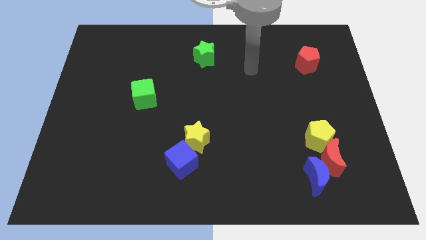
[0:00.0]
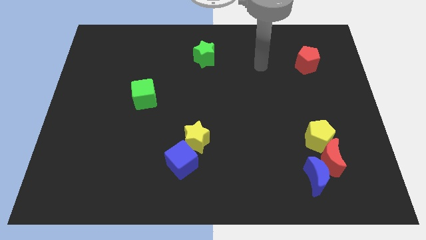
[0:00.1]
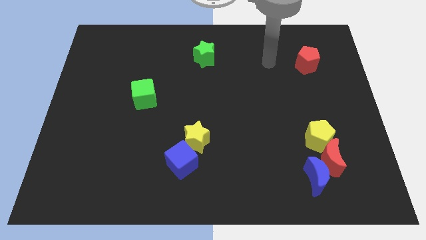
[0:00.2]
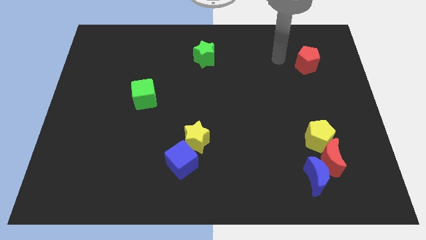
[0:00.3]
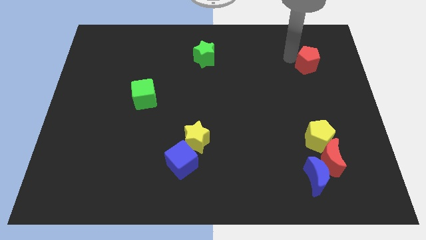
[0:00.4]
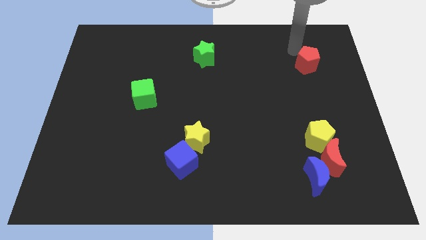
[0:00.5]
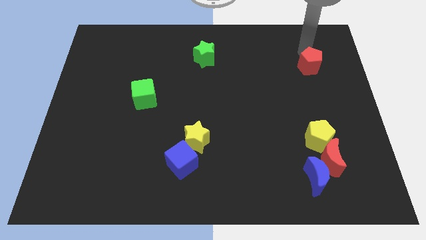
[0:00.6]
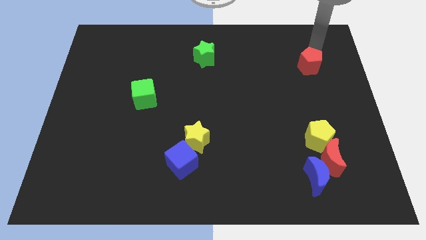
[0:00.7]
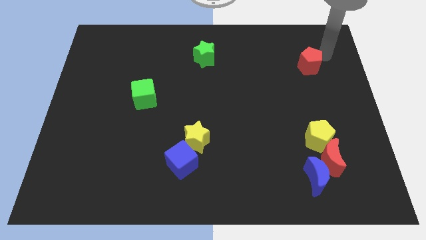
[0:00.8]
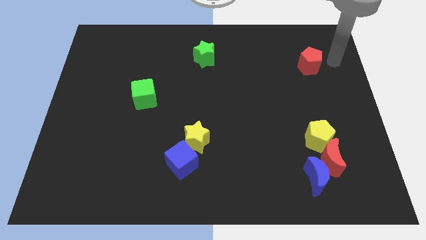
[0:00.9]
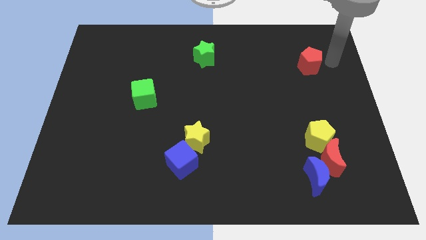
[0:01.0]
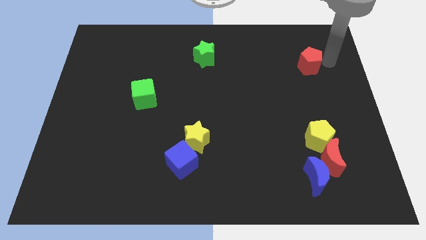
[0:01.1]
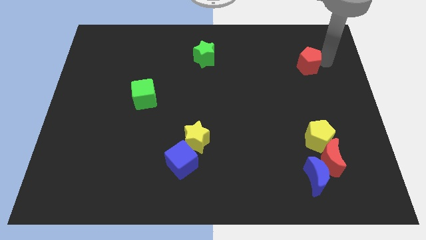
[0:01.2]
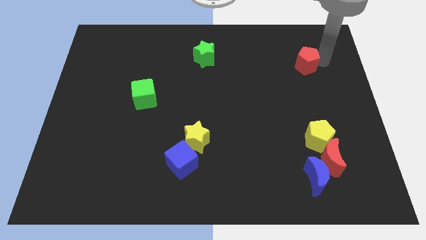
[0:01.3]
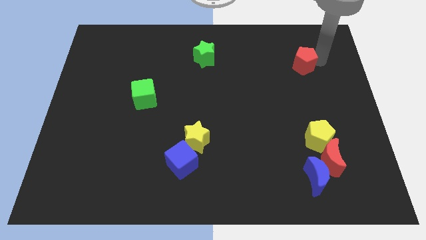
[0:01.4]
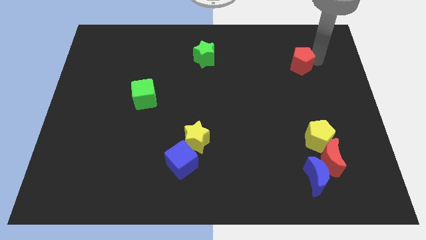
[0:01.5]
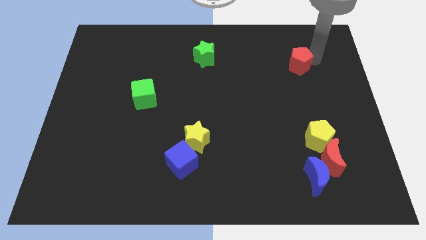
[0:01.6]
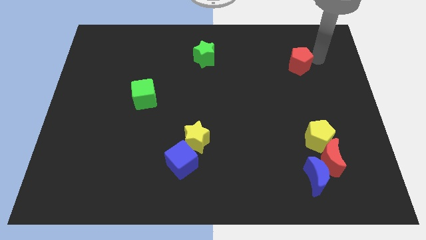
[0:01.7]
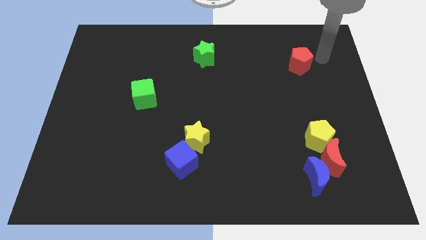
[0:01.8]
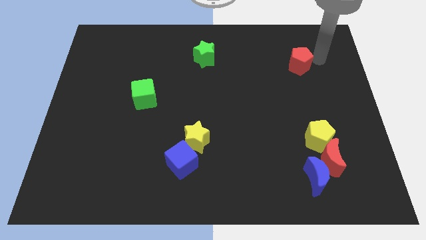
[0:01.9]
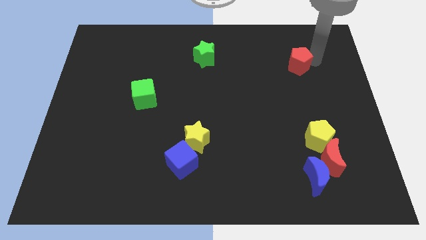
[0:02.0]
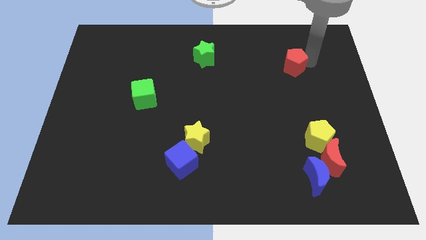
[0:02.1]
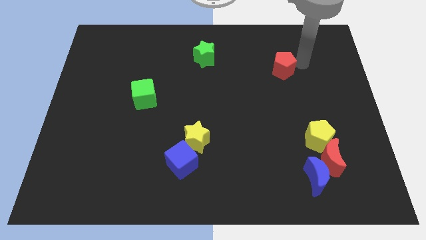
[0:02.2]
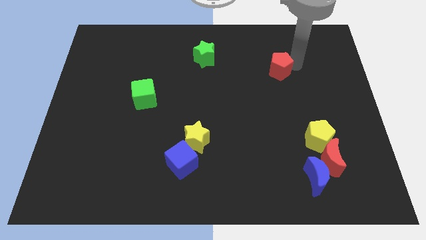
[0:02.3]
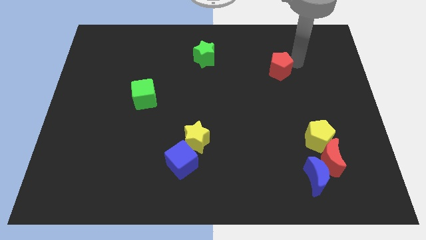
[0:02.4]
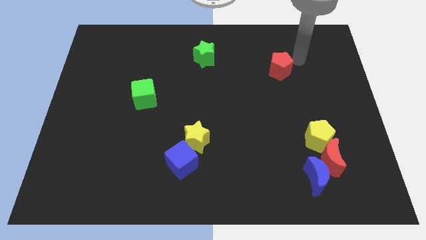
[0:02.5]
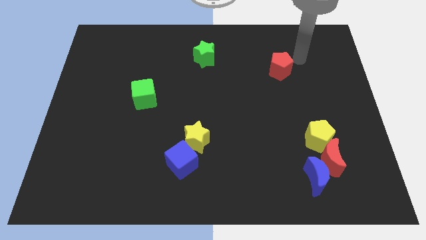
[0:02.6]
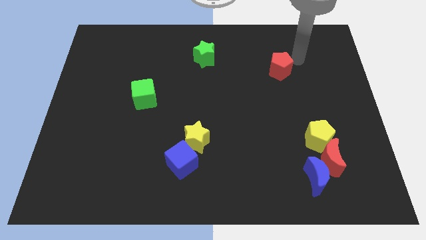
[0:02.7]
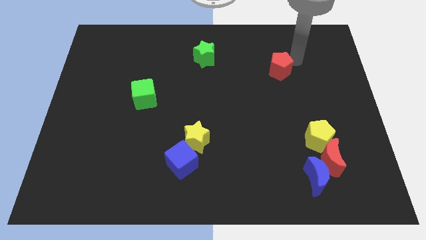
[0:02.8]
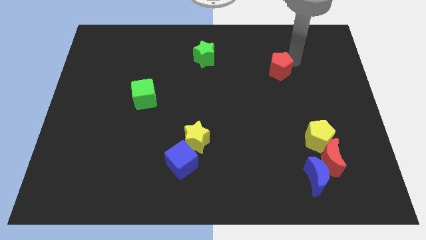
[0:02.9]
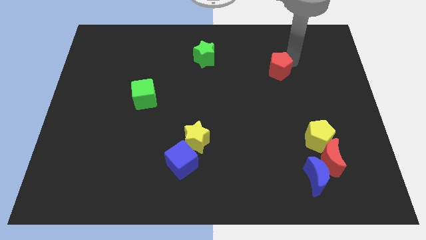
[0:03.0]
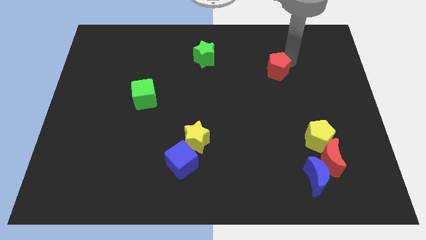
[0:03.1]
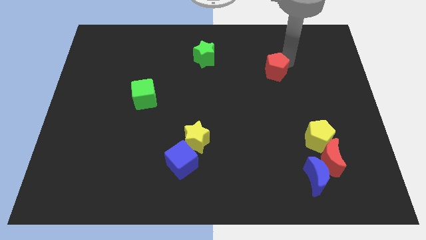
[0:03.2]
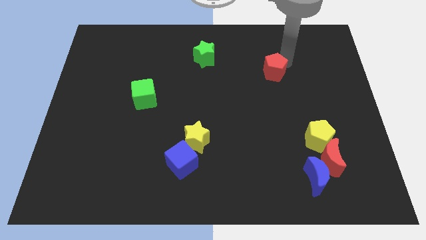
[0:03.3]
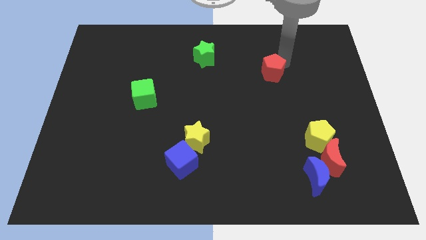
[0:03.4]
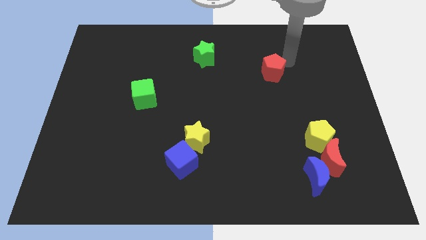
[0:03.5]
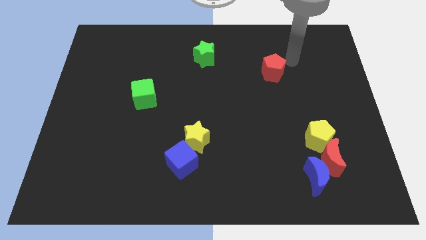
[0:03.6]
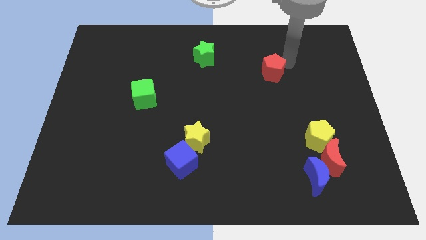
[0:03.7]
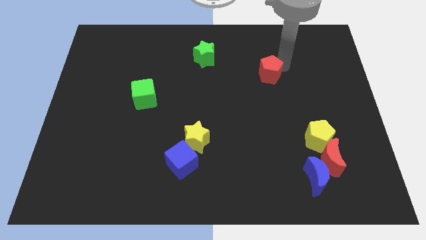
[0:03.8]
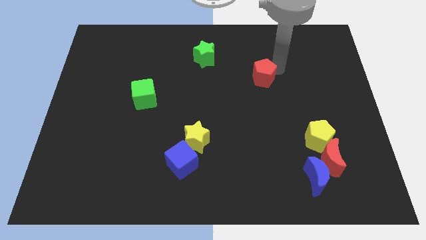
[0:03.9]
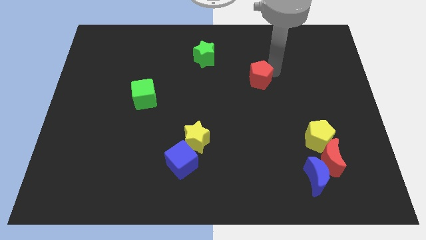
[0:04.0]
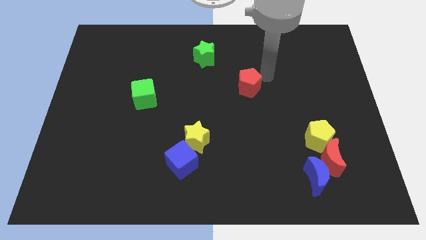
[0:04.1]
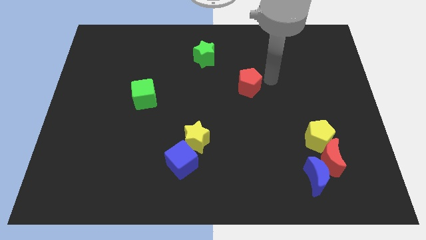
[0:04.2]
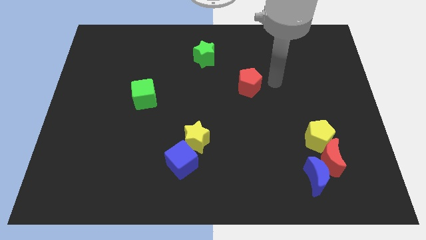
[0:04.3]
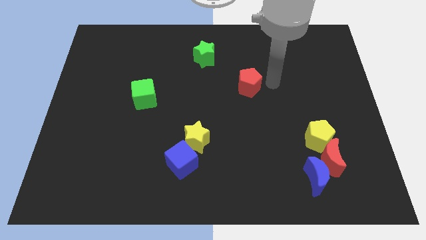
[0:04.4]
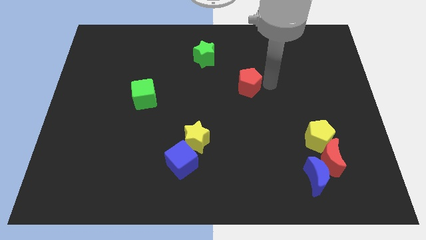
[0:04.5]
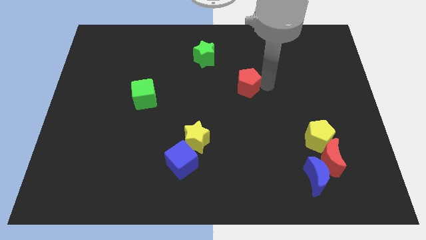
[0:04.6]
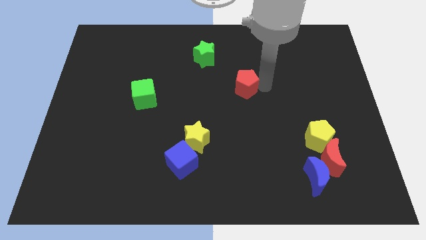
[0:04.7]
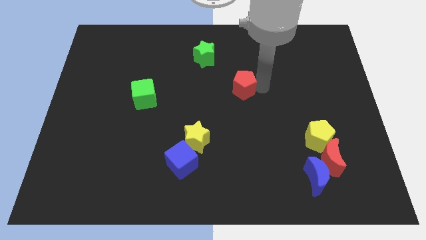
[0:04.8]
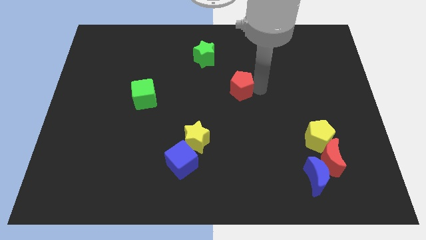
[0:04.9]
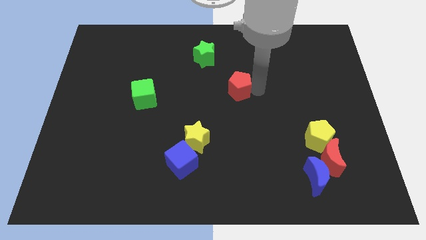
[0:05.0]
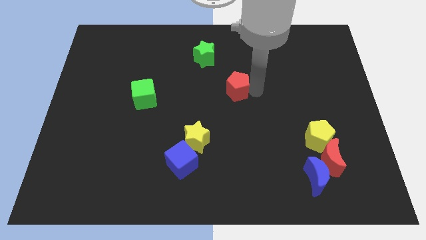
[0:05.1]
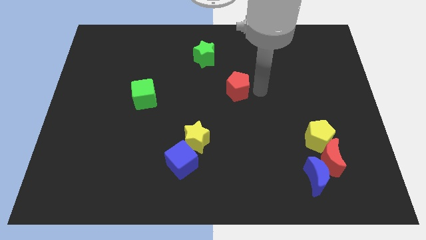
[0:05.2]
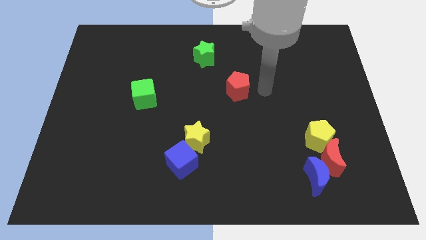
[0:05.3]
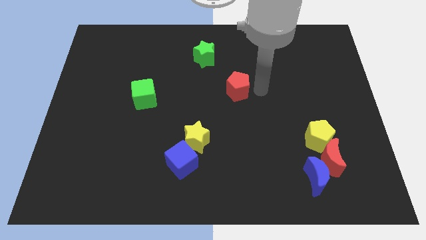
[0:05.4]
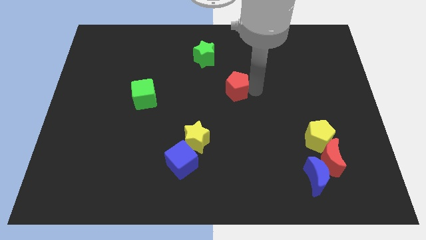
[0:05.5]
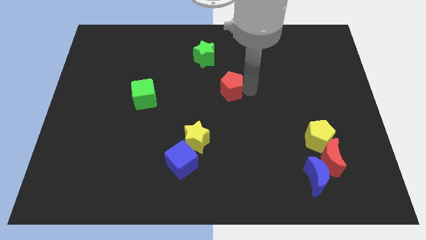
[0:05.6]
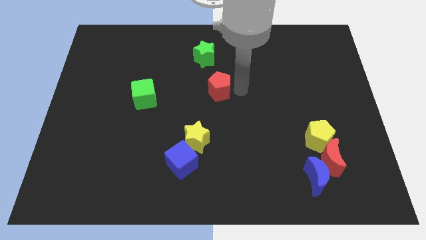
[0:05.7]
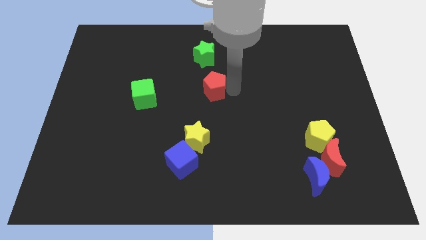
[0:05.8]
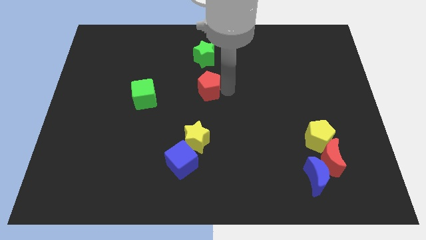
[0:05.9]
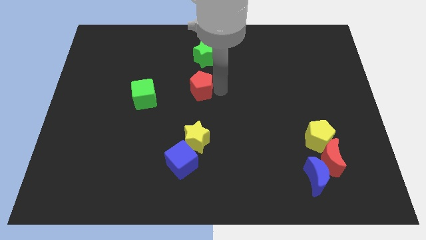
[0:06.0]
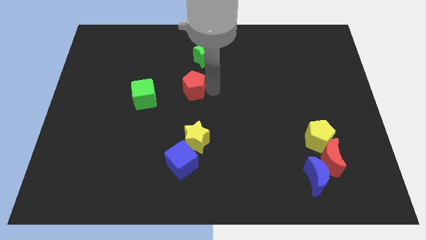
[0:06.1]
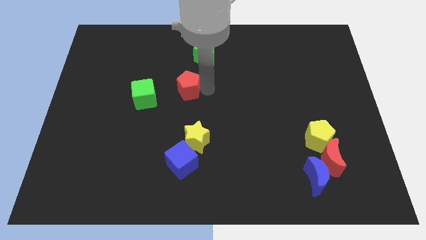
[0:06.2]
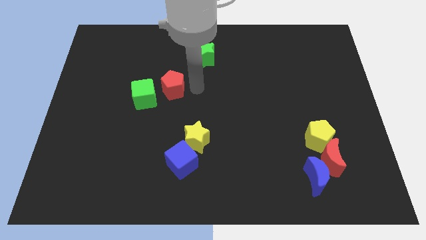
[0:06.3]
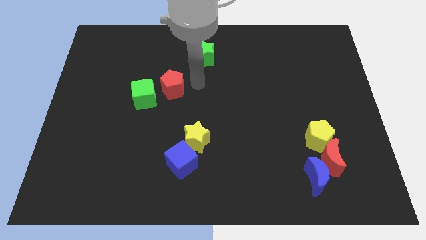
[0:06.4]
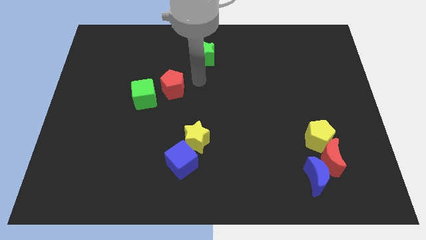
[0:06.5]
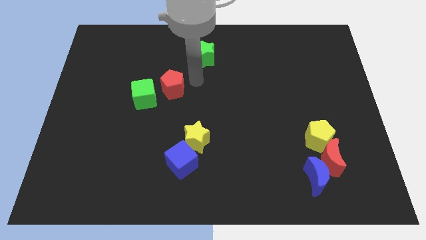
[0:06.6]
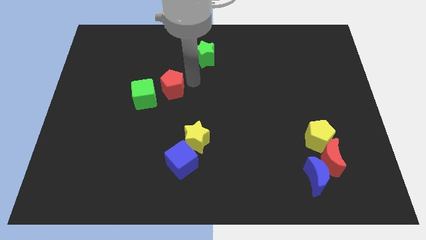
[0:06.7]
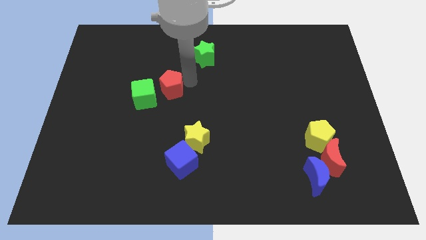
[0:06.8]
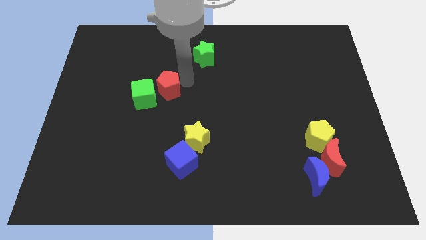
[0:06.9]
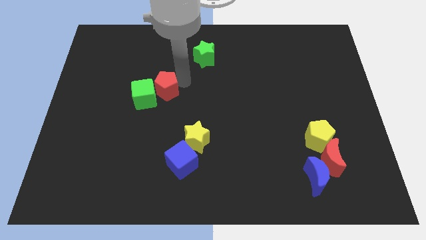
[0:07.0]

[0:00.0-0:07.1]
push the red pentagon towards the green cube

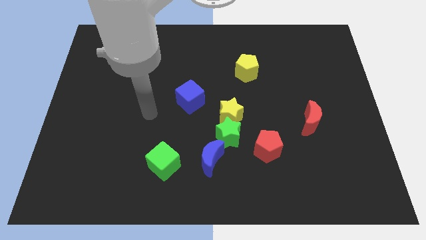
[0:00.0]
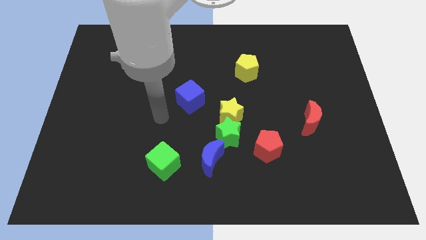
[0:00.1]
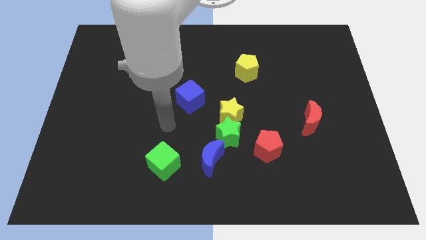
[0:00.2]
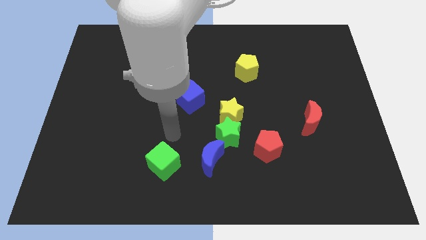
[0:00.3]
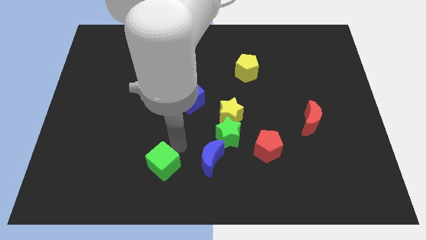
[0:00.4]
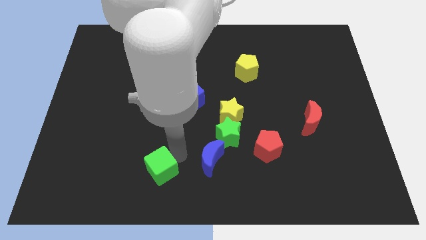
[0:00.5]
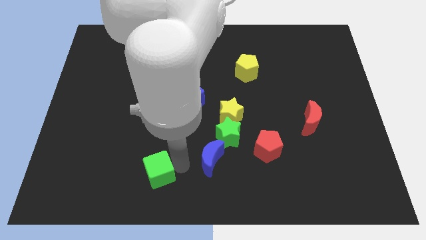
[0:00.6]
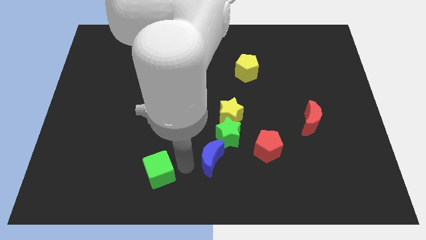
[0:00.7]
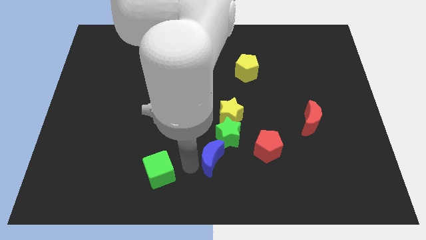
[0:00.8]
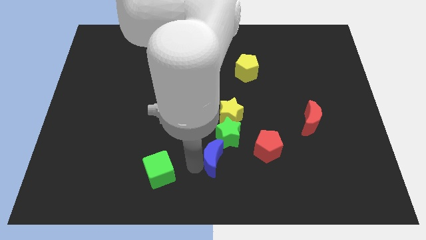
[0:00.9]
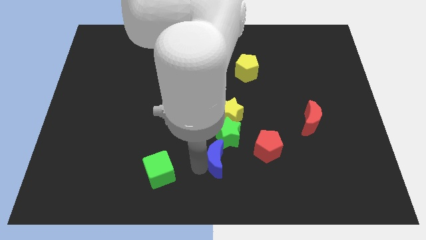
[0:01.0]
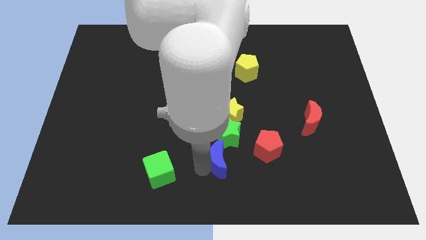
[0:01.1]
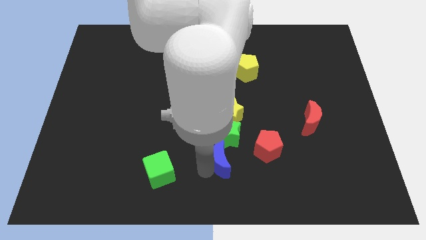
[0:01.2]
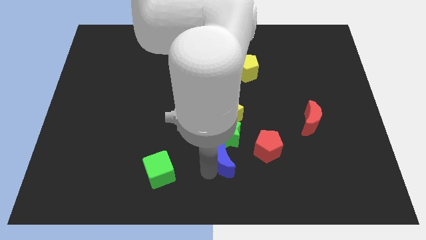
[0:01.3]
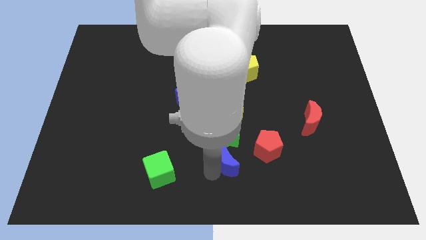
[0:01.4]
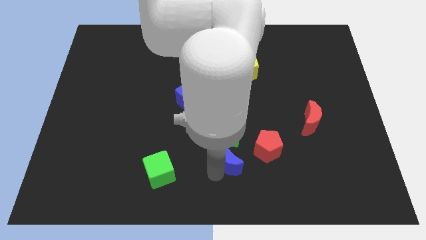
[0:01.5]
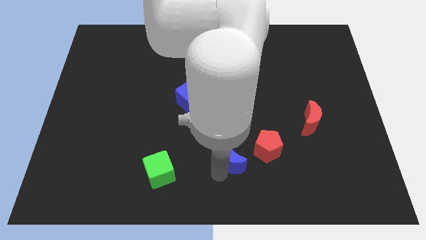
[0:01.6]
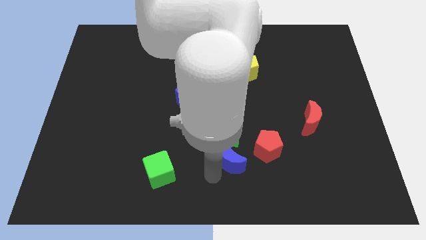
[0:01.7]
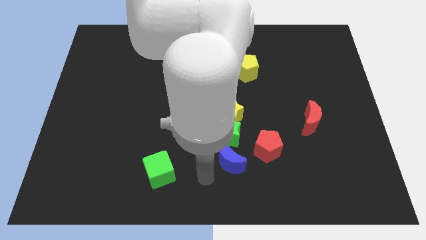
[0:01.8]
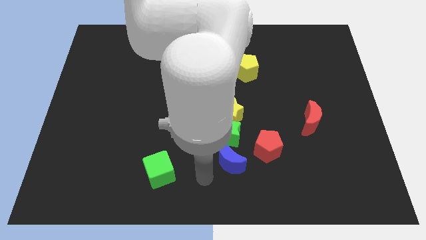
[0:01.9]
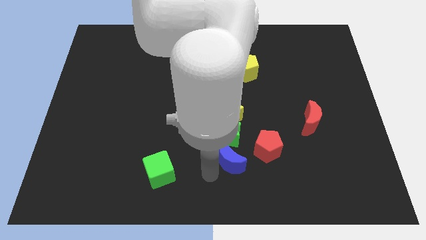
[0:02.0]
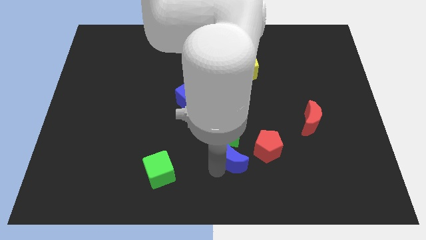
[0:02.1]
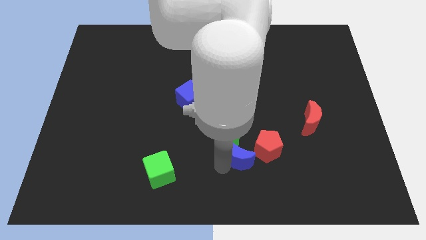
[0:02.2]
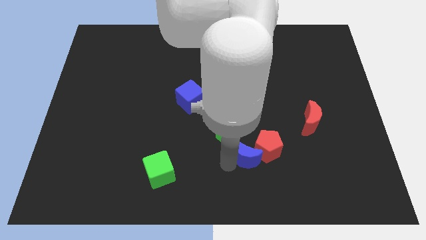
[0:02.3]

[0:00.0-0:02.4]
move the blue moon towards the red pentagon
